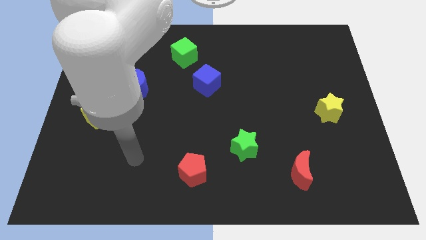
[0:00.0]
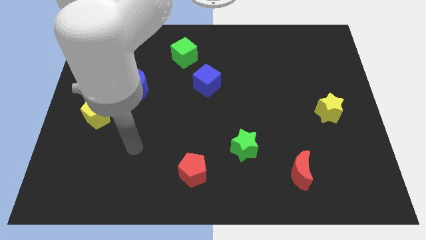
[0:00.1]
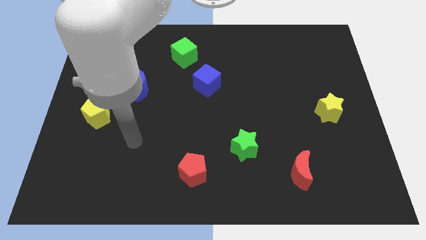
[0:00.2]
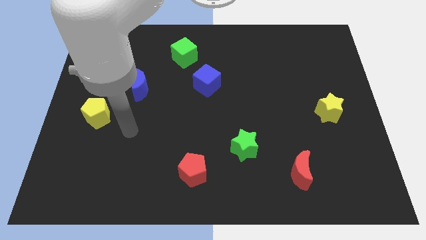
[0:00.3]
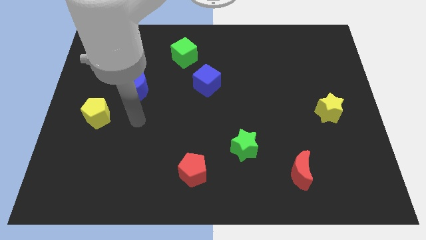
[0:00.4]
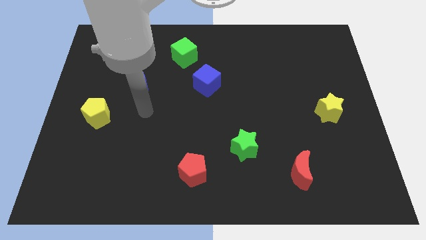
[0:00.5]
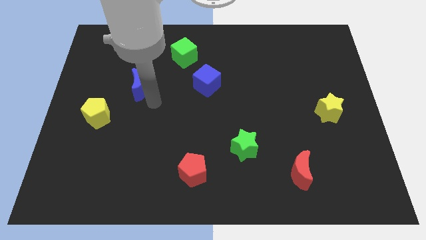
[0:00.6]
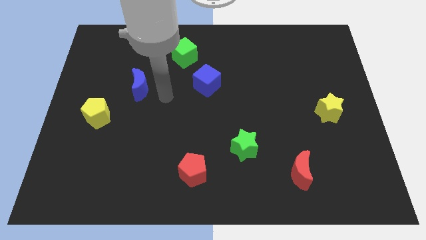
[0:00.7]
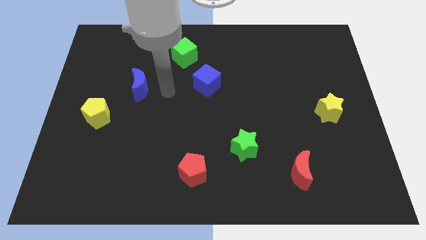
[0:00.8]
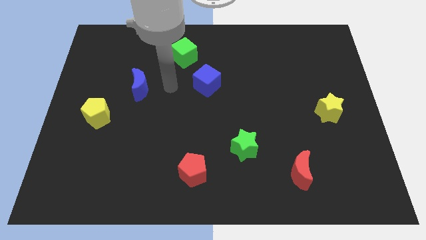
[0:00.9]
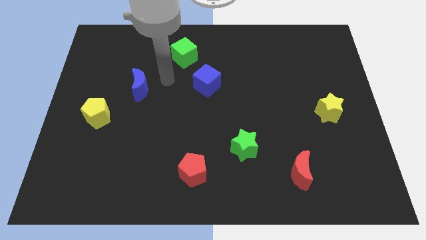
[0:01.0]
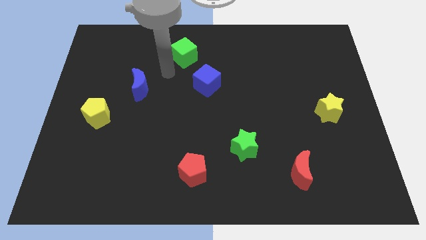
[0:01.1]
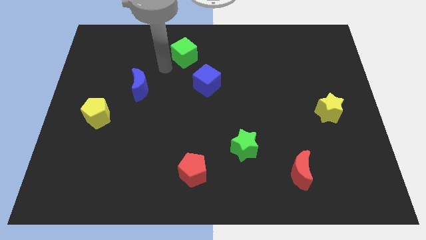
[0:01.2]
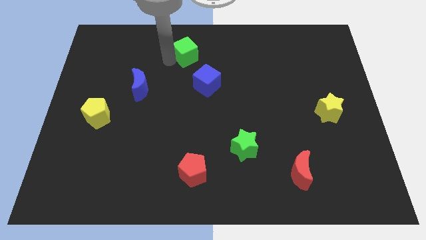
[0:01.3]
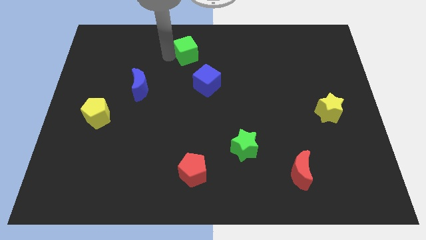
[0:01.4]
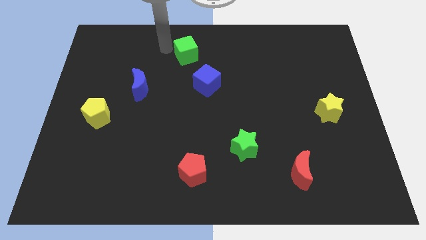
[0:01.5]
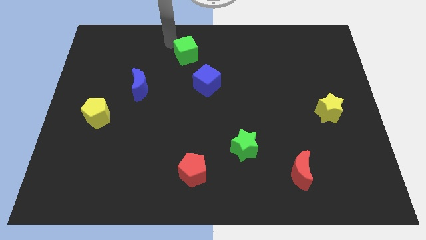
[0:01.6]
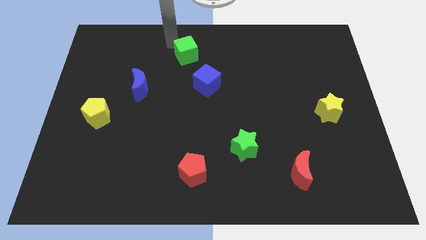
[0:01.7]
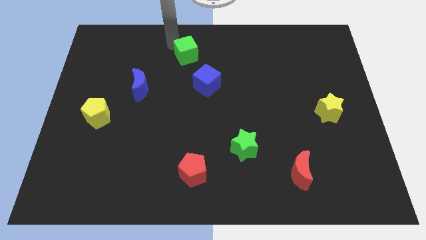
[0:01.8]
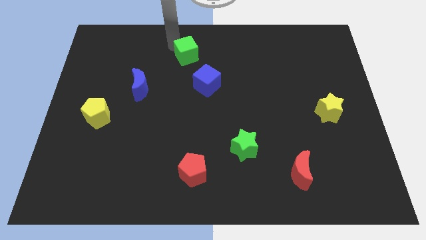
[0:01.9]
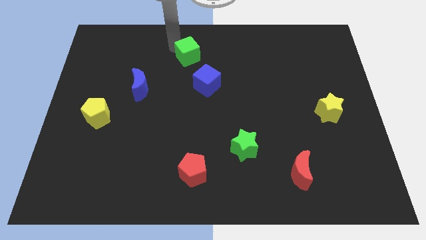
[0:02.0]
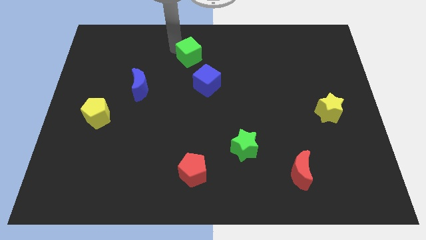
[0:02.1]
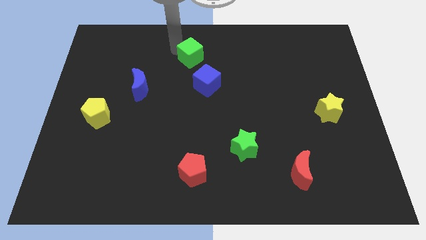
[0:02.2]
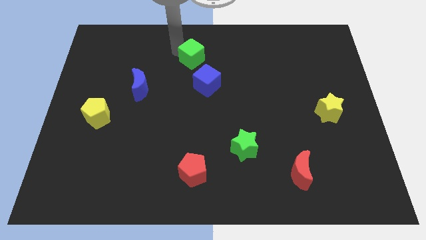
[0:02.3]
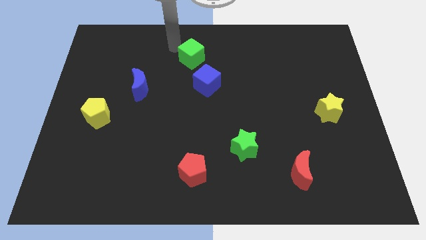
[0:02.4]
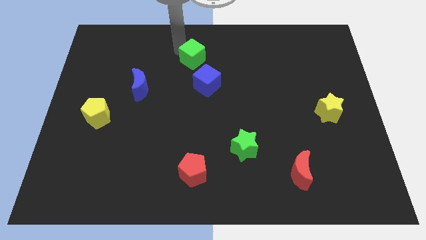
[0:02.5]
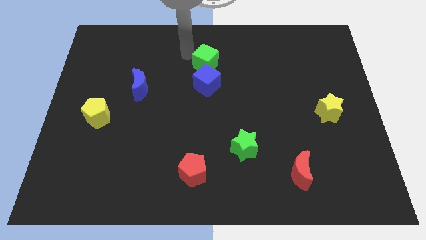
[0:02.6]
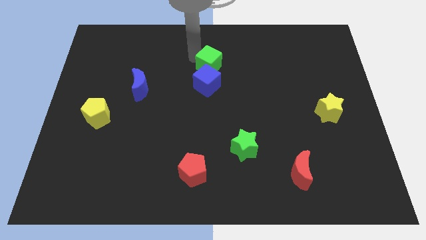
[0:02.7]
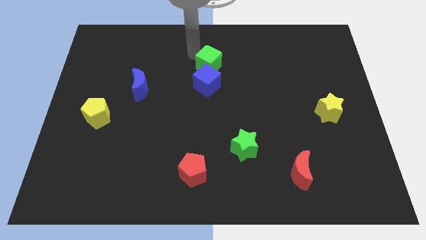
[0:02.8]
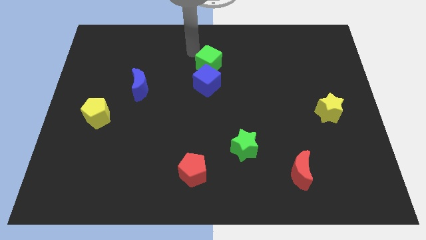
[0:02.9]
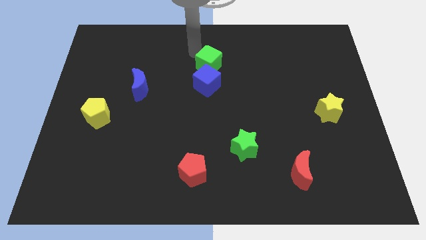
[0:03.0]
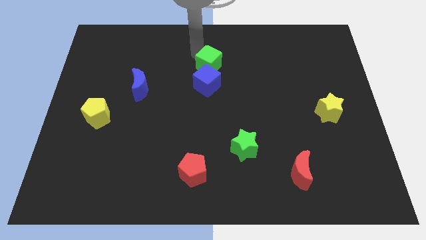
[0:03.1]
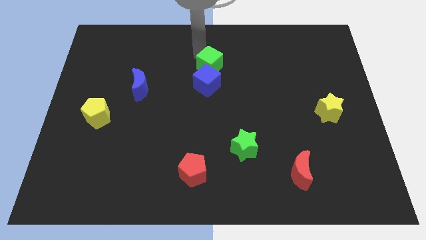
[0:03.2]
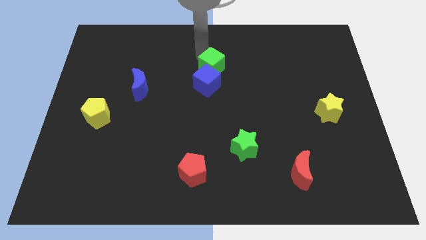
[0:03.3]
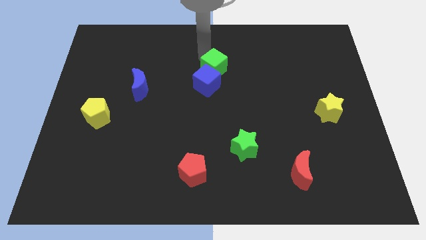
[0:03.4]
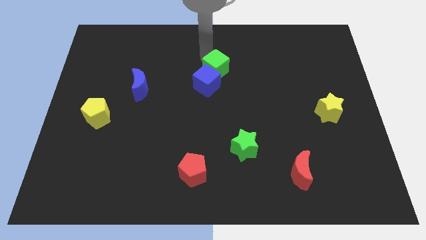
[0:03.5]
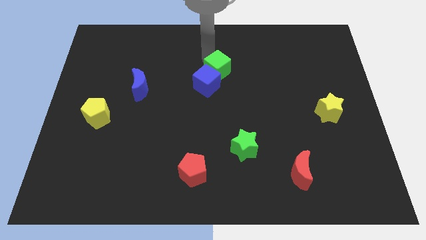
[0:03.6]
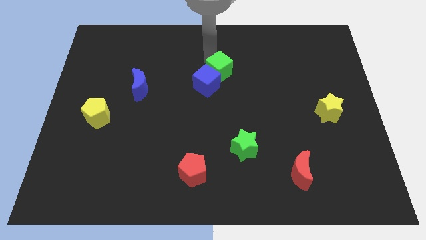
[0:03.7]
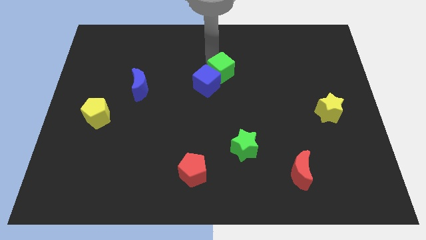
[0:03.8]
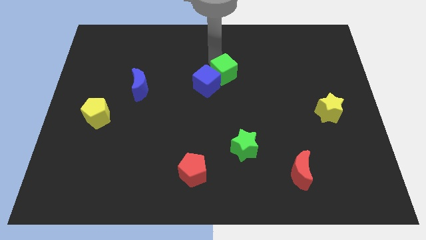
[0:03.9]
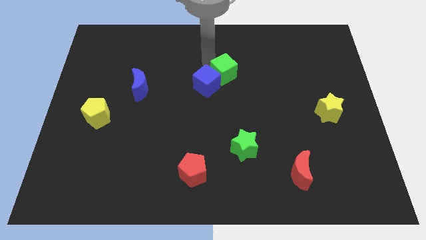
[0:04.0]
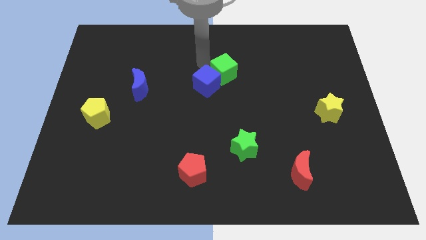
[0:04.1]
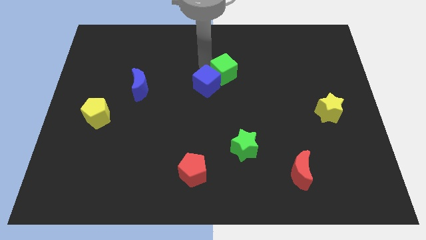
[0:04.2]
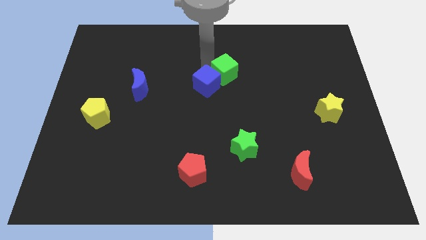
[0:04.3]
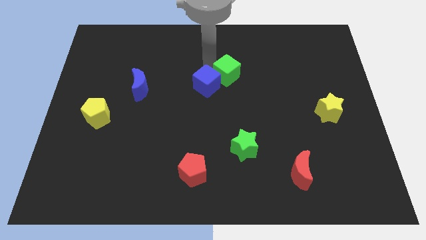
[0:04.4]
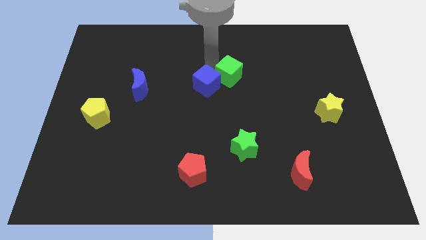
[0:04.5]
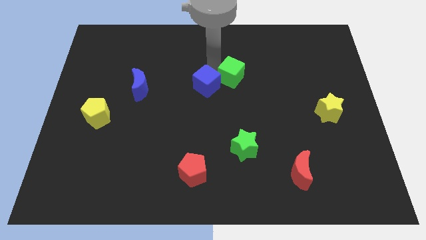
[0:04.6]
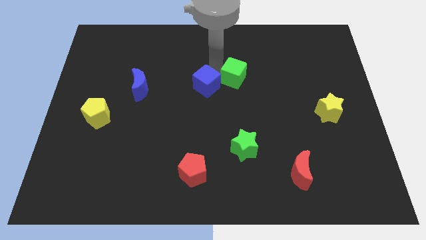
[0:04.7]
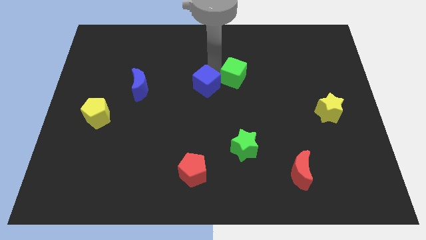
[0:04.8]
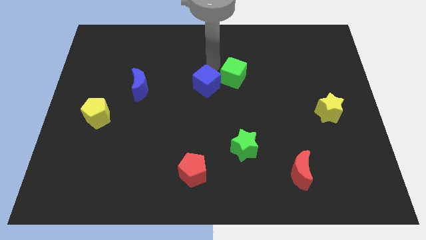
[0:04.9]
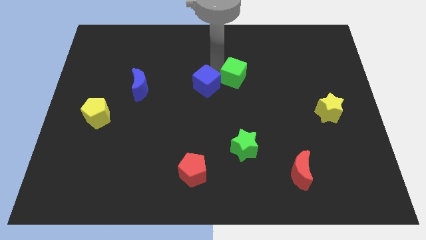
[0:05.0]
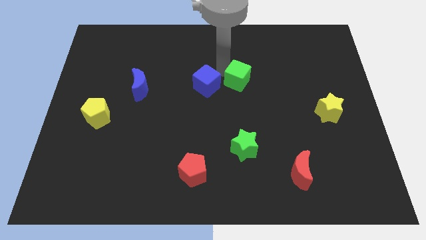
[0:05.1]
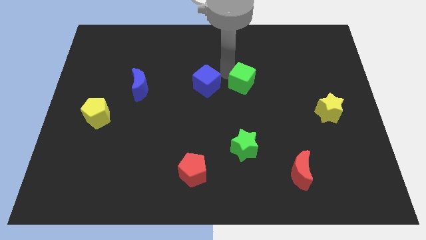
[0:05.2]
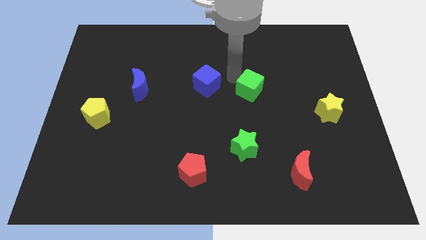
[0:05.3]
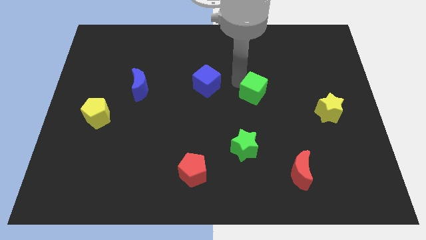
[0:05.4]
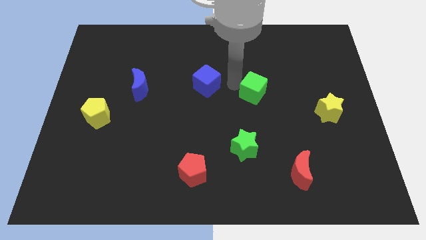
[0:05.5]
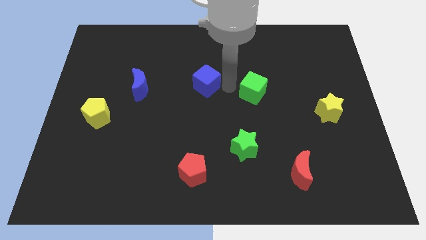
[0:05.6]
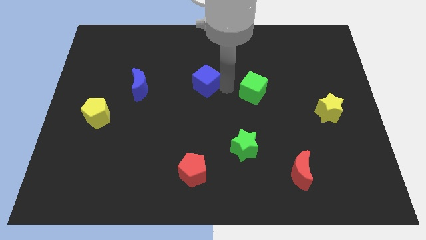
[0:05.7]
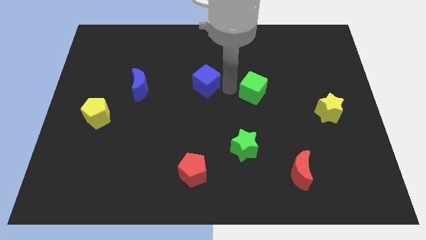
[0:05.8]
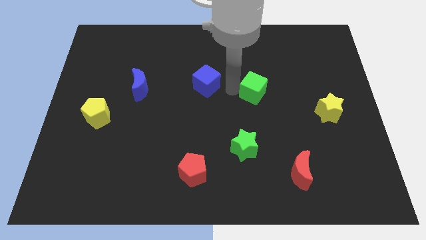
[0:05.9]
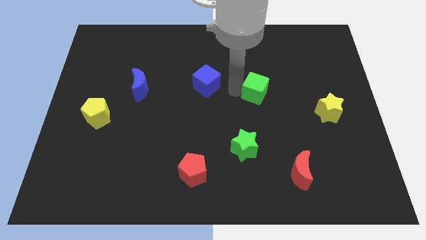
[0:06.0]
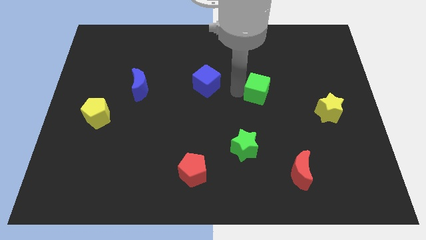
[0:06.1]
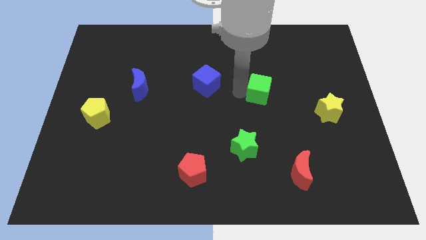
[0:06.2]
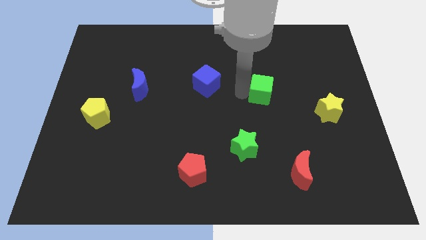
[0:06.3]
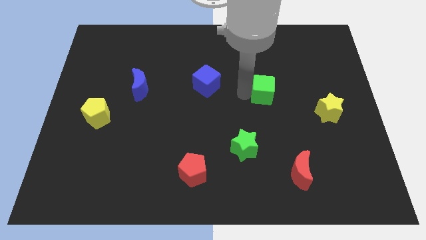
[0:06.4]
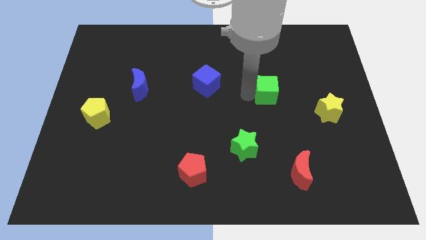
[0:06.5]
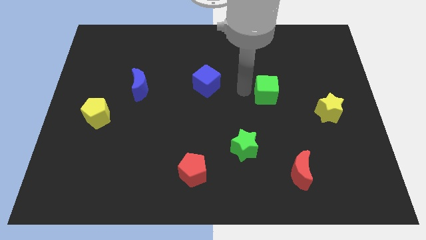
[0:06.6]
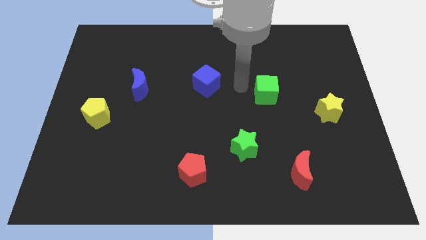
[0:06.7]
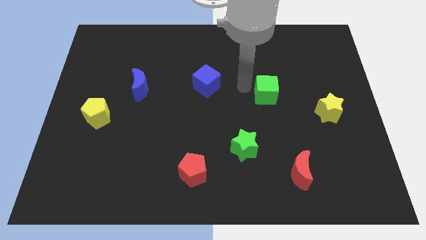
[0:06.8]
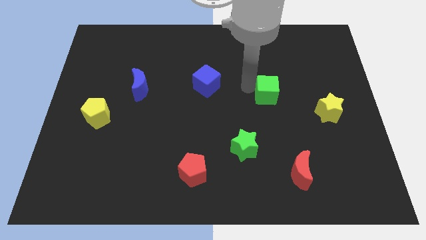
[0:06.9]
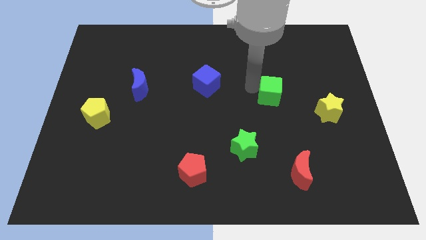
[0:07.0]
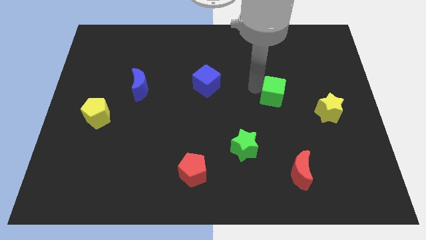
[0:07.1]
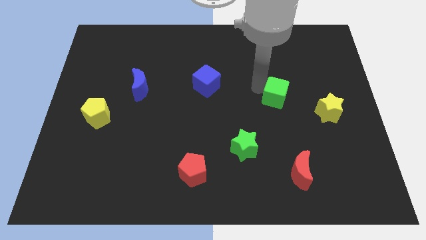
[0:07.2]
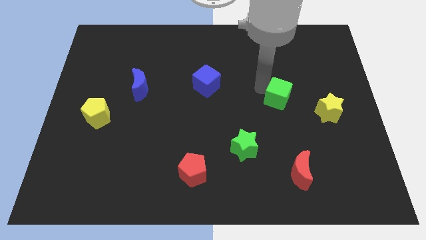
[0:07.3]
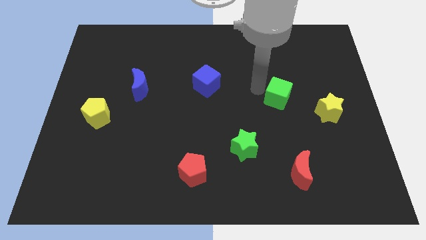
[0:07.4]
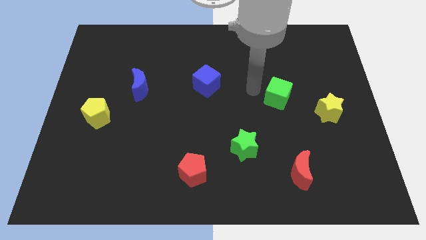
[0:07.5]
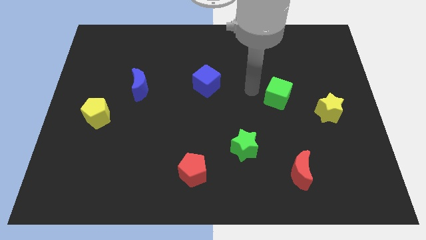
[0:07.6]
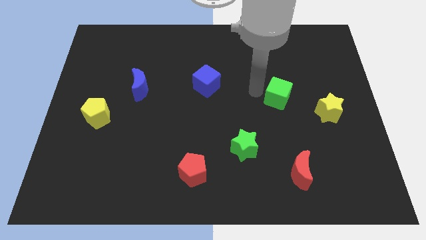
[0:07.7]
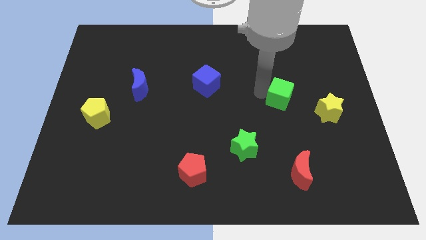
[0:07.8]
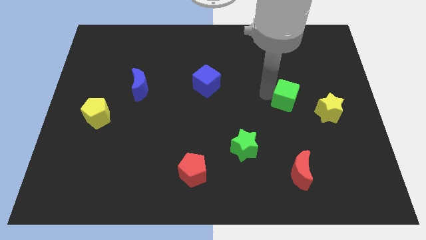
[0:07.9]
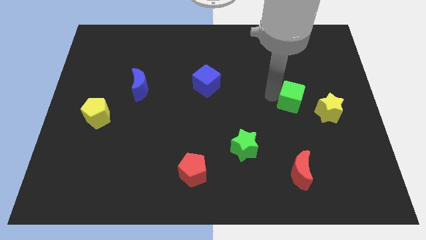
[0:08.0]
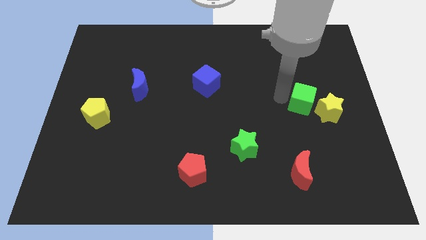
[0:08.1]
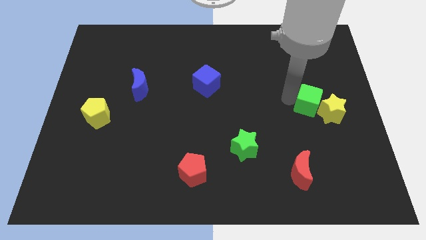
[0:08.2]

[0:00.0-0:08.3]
put the green cube close to the yellow star
